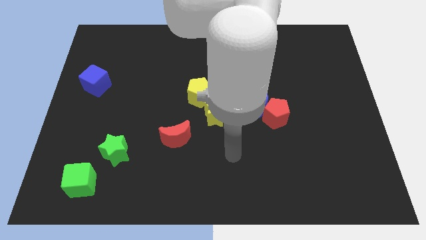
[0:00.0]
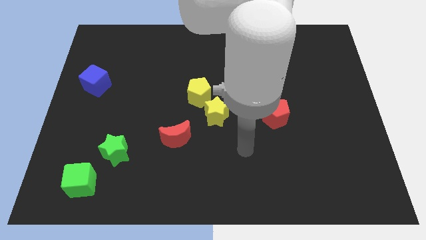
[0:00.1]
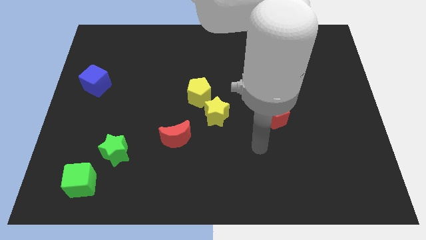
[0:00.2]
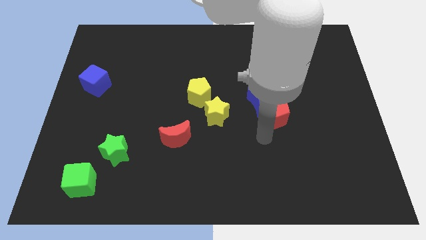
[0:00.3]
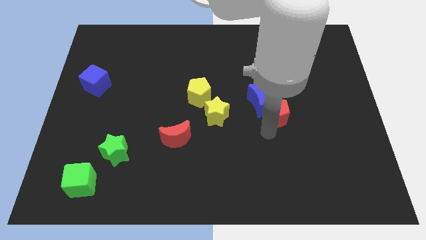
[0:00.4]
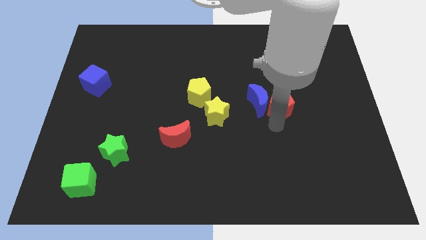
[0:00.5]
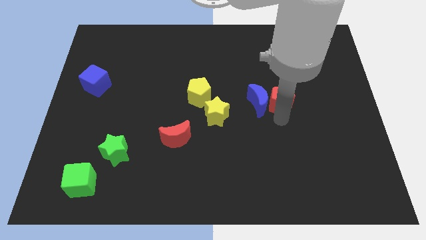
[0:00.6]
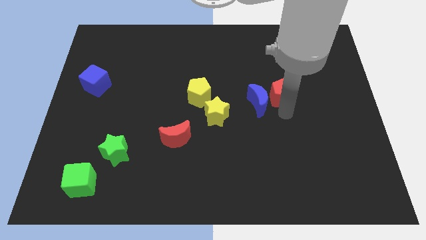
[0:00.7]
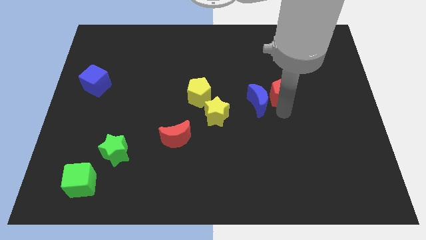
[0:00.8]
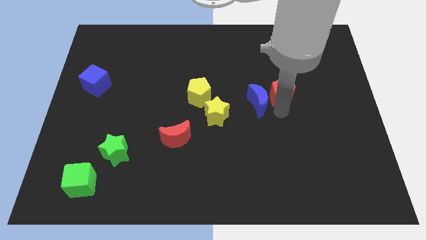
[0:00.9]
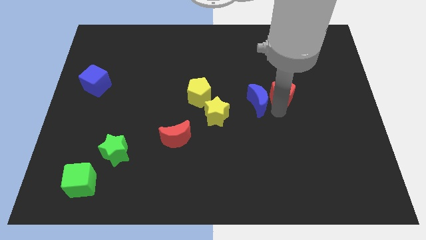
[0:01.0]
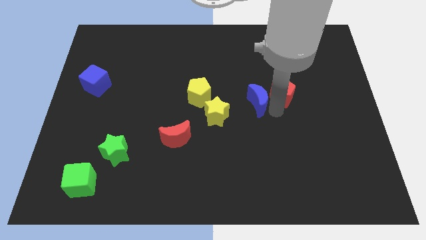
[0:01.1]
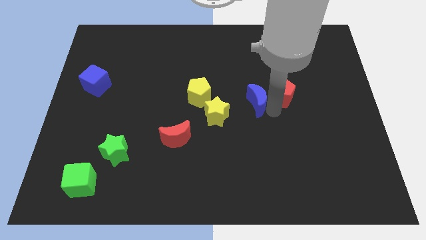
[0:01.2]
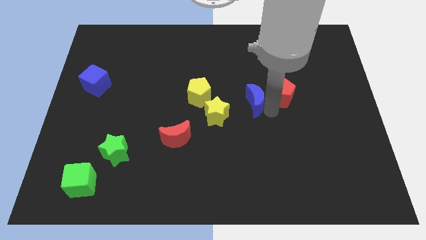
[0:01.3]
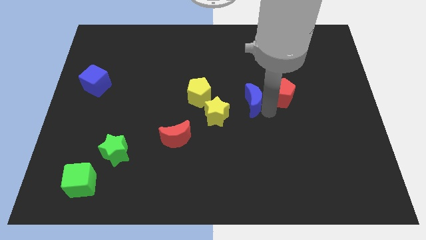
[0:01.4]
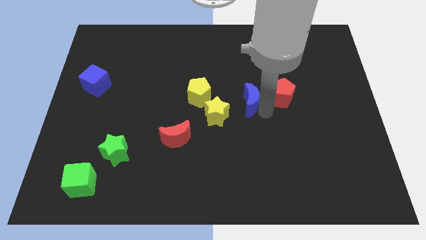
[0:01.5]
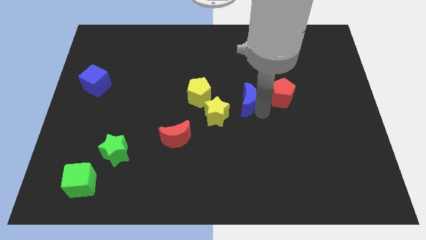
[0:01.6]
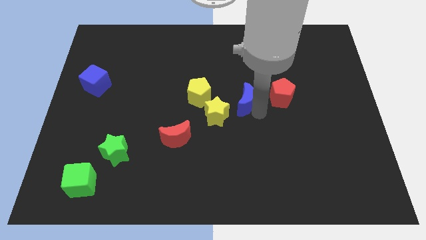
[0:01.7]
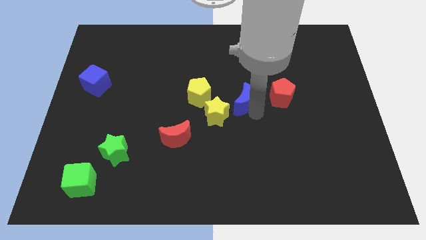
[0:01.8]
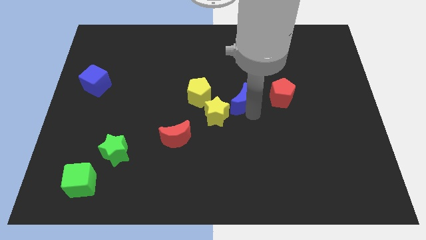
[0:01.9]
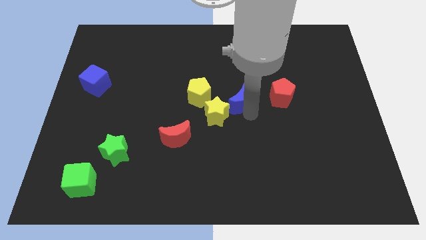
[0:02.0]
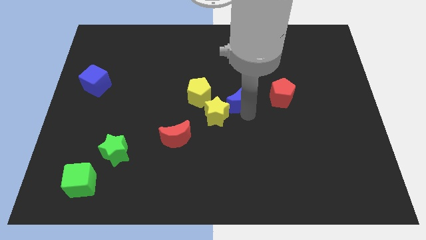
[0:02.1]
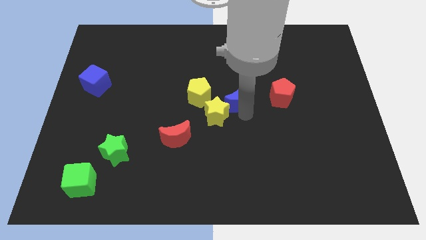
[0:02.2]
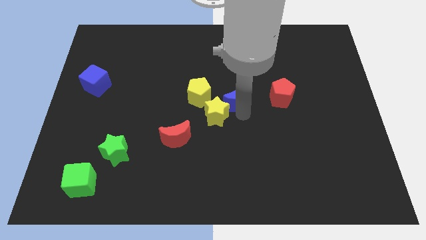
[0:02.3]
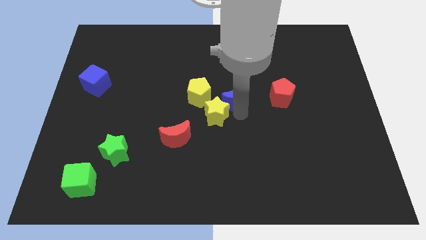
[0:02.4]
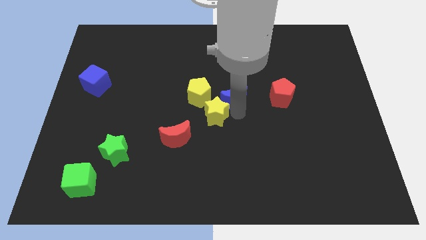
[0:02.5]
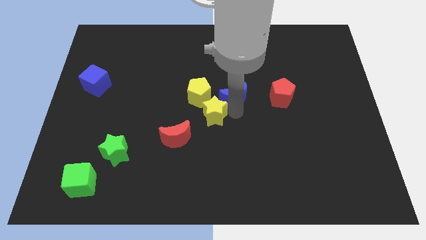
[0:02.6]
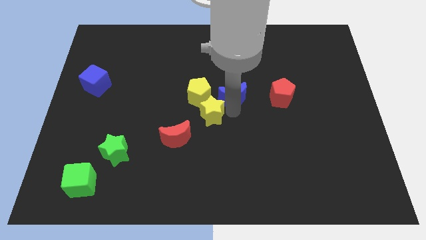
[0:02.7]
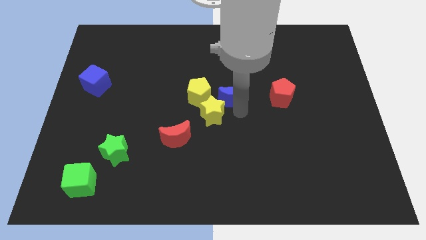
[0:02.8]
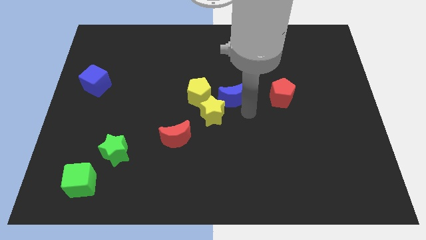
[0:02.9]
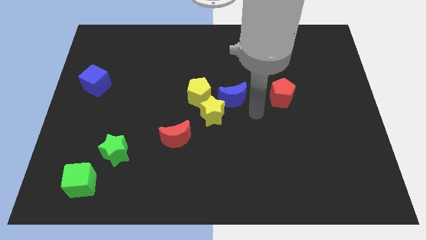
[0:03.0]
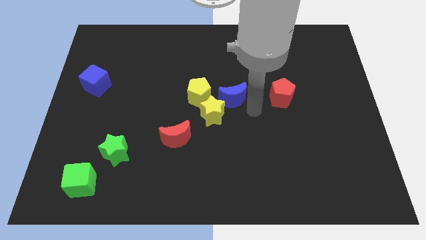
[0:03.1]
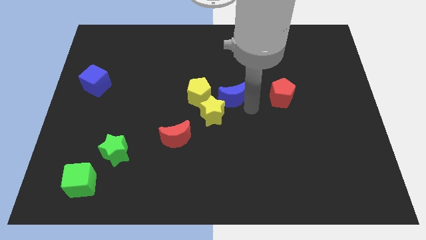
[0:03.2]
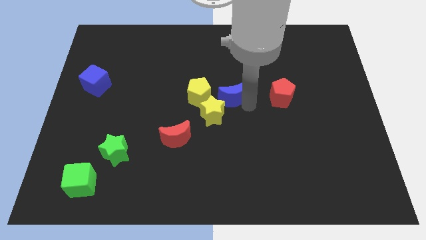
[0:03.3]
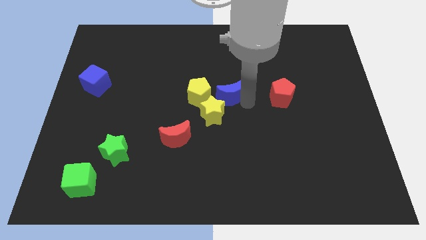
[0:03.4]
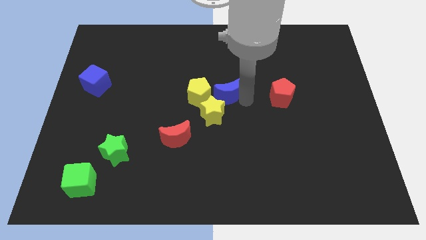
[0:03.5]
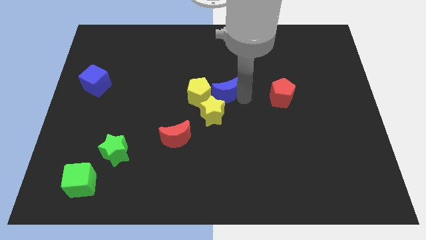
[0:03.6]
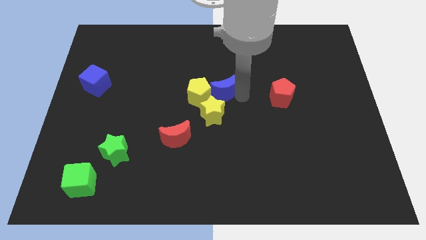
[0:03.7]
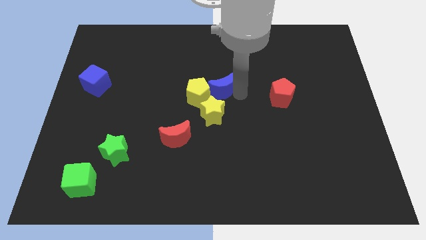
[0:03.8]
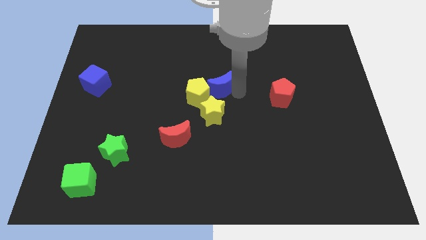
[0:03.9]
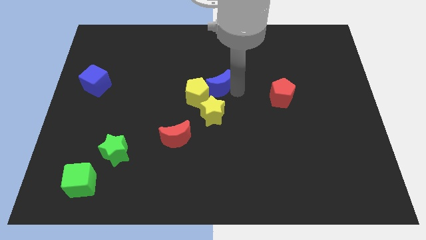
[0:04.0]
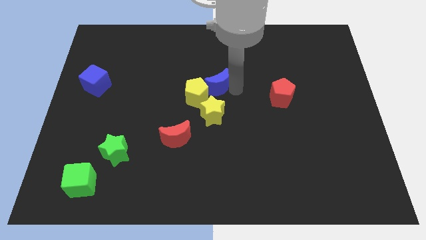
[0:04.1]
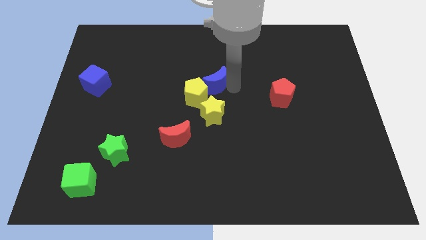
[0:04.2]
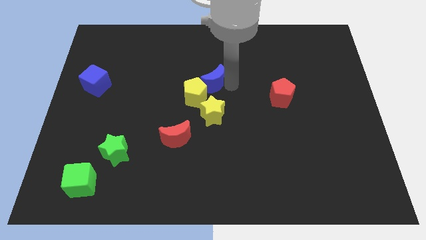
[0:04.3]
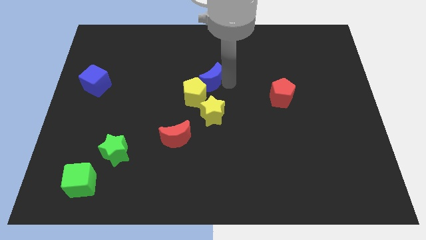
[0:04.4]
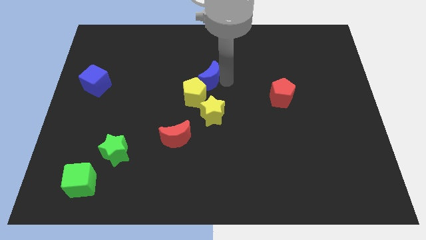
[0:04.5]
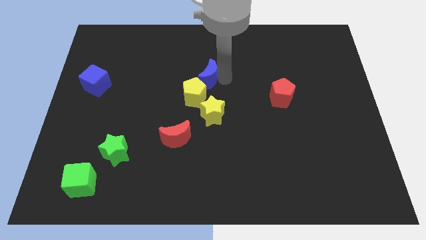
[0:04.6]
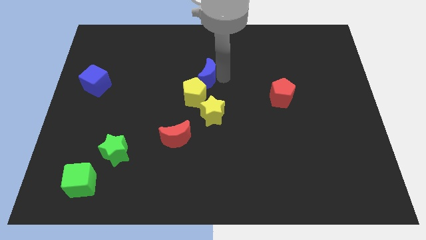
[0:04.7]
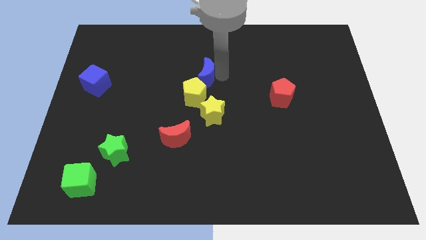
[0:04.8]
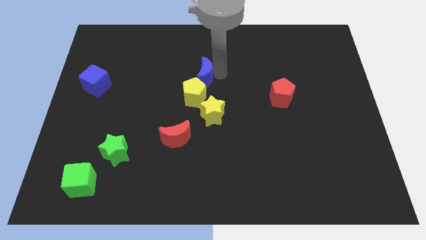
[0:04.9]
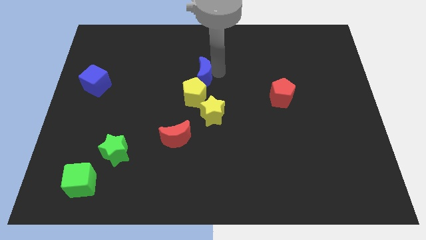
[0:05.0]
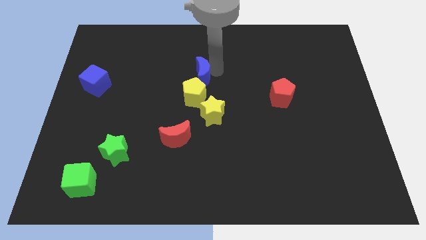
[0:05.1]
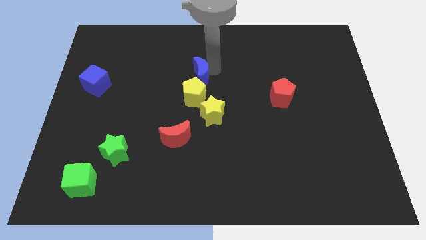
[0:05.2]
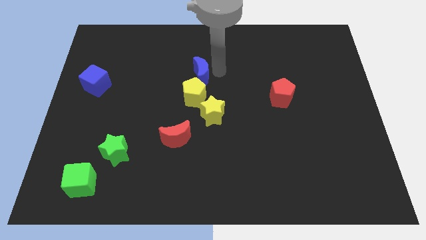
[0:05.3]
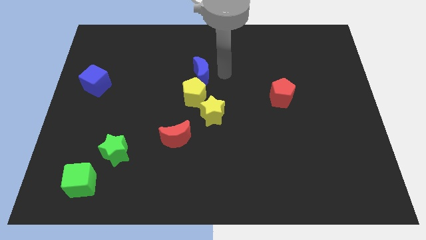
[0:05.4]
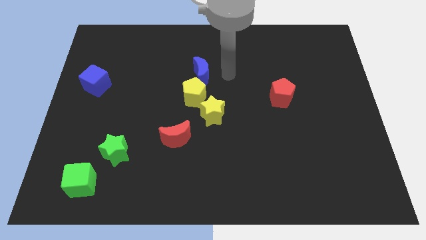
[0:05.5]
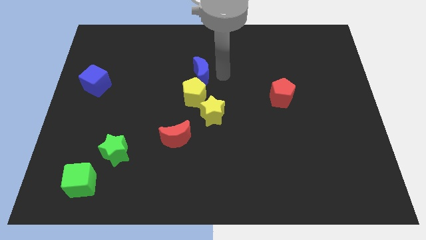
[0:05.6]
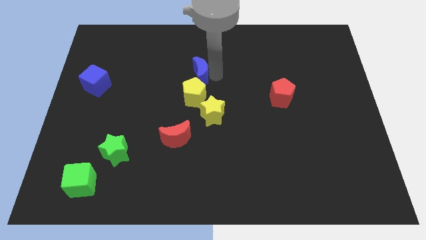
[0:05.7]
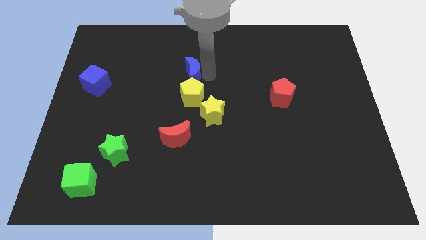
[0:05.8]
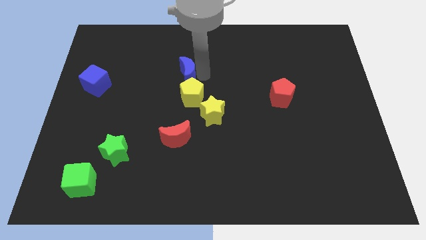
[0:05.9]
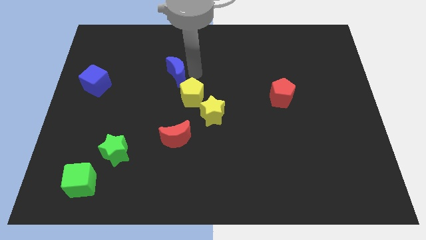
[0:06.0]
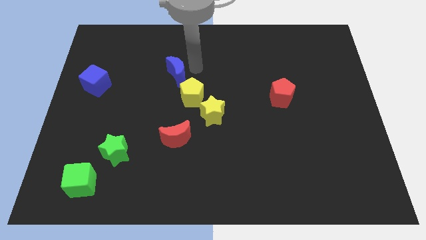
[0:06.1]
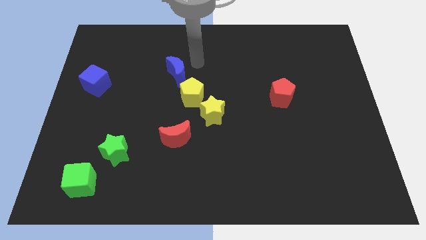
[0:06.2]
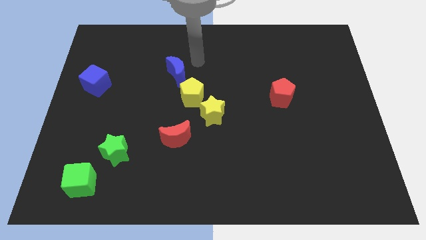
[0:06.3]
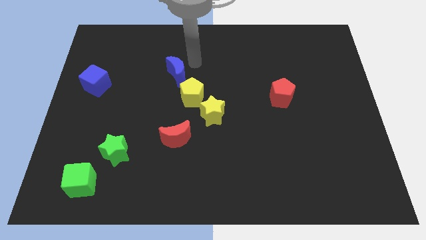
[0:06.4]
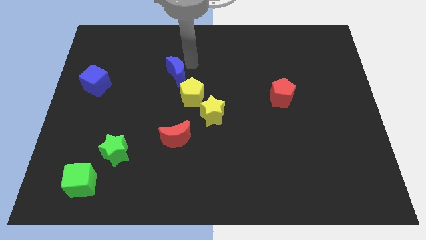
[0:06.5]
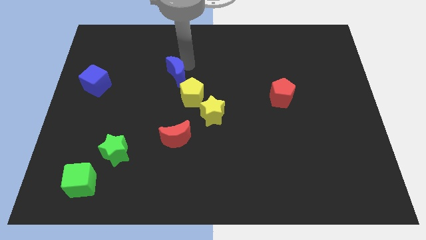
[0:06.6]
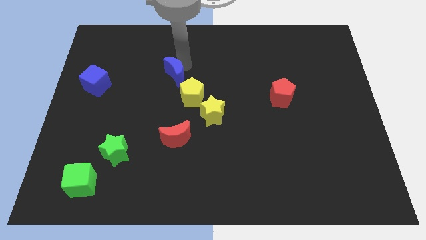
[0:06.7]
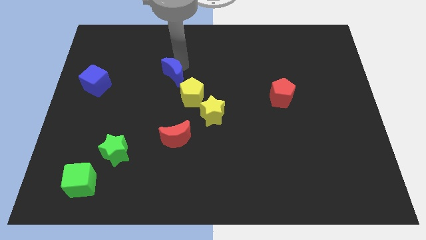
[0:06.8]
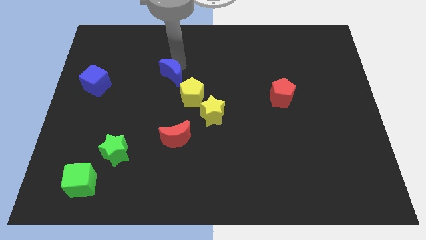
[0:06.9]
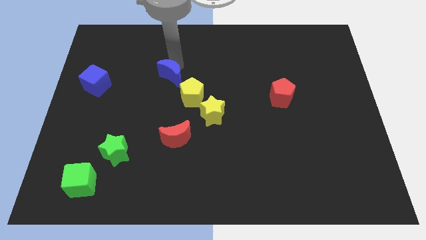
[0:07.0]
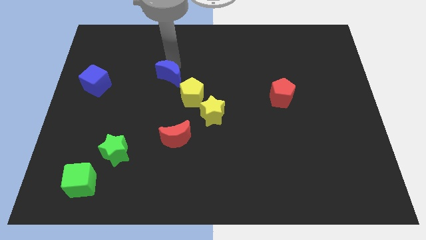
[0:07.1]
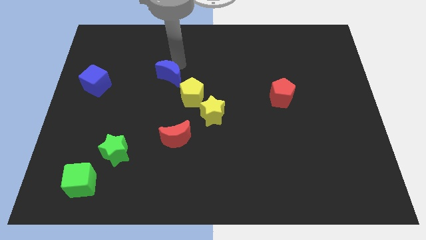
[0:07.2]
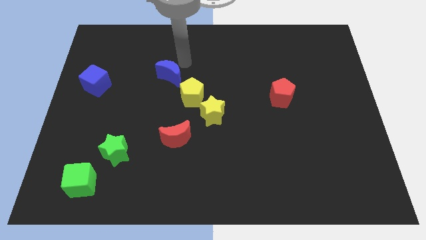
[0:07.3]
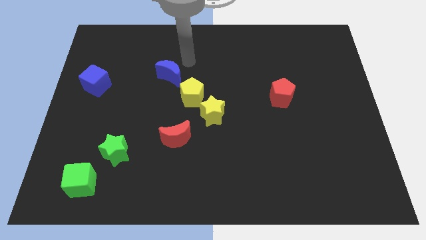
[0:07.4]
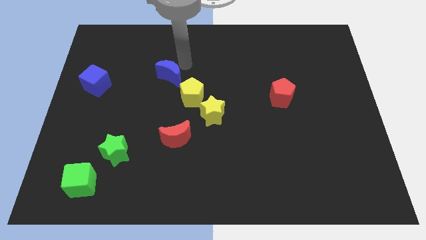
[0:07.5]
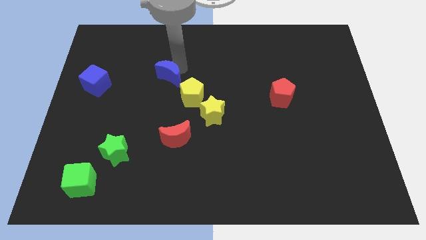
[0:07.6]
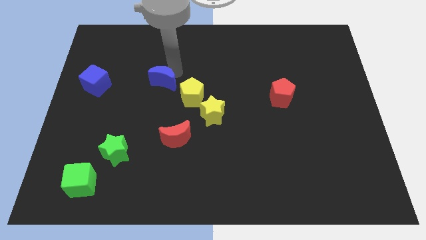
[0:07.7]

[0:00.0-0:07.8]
move the blue moon to the left

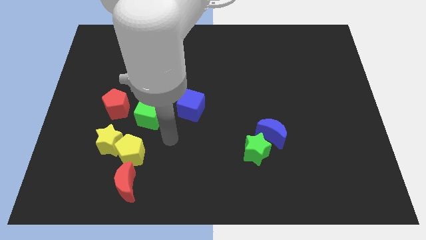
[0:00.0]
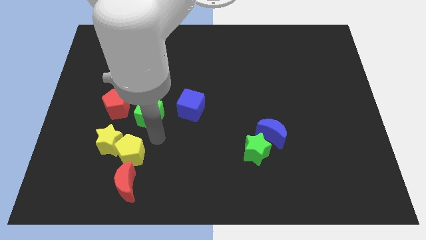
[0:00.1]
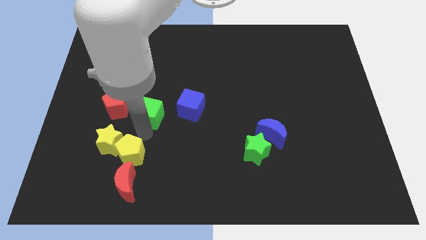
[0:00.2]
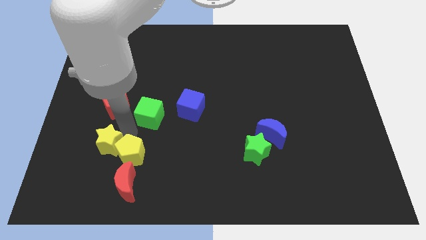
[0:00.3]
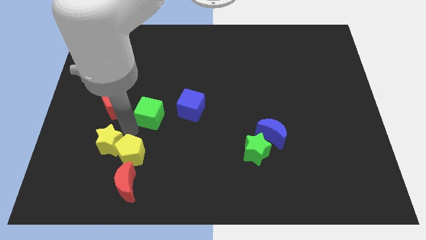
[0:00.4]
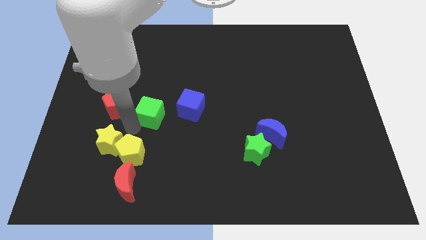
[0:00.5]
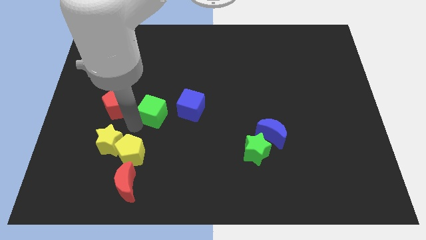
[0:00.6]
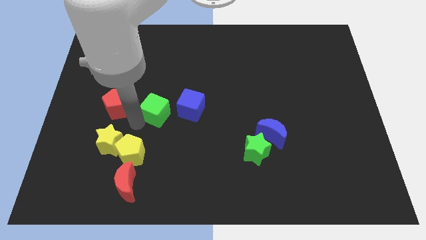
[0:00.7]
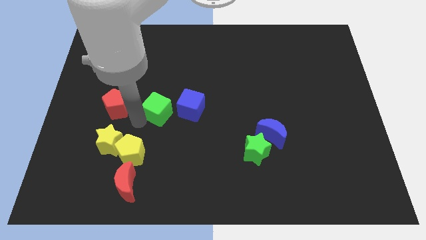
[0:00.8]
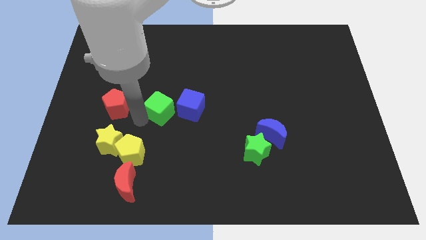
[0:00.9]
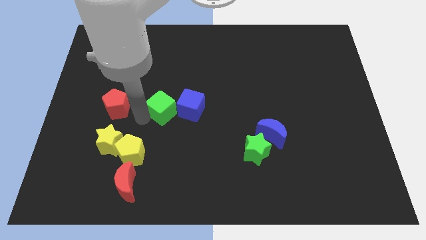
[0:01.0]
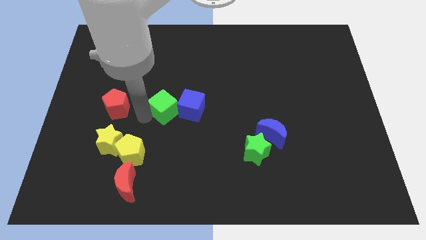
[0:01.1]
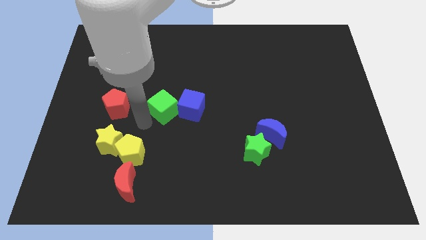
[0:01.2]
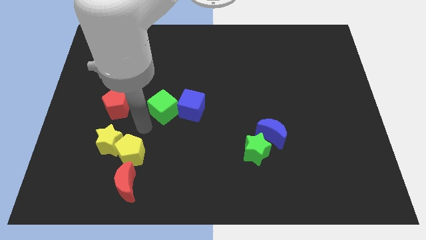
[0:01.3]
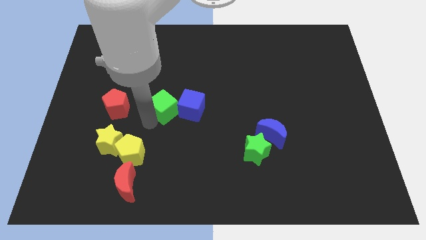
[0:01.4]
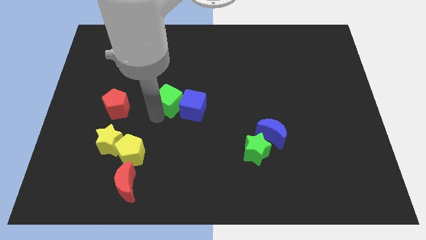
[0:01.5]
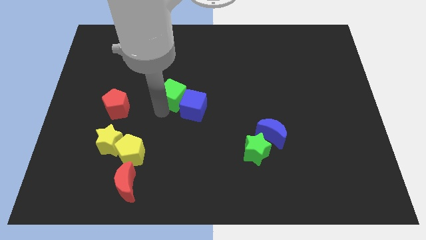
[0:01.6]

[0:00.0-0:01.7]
slightly slide the green cube upwards and then to the right
